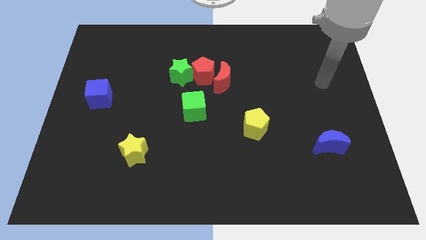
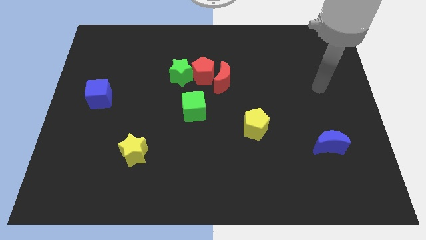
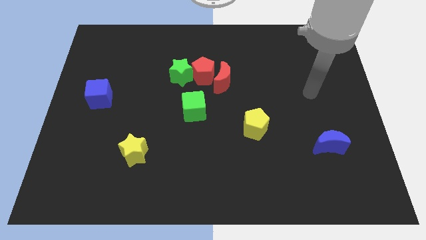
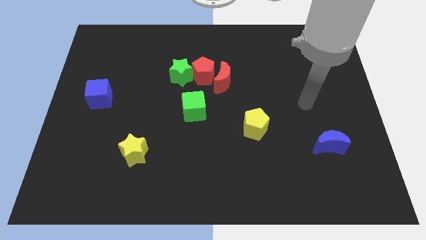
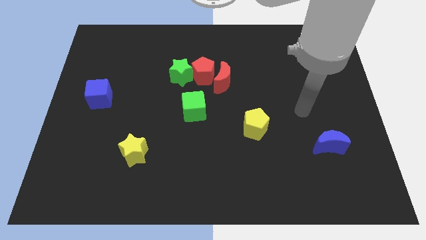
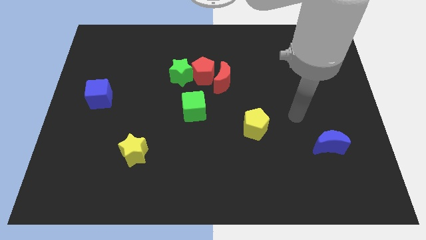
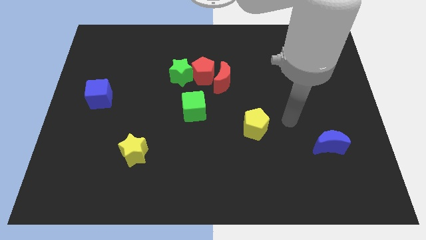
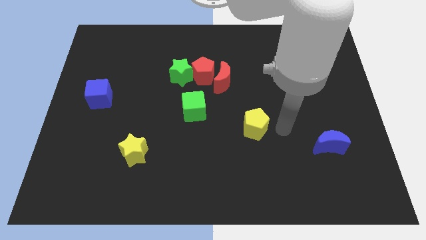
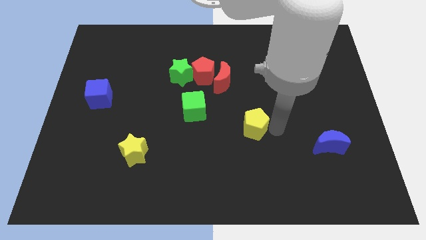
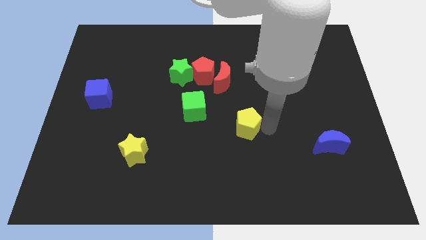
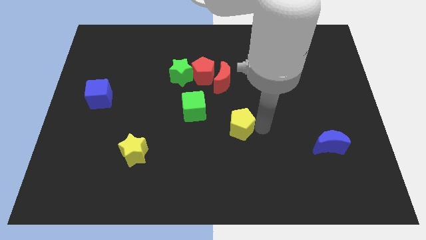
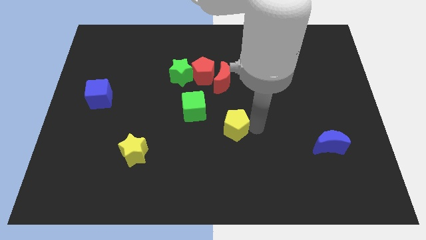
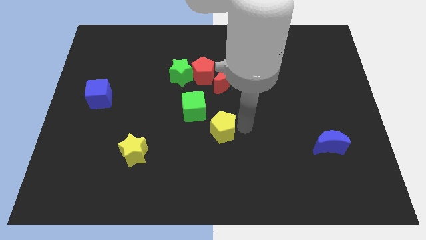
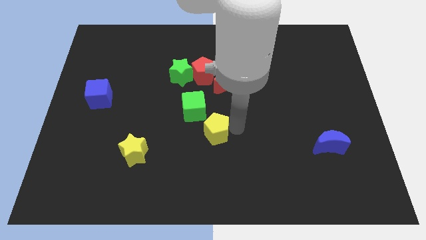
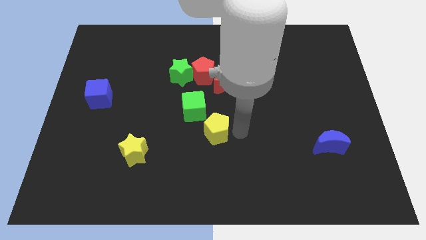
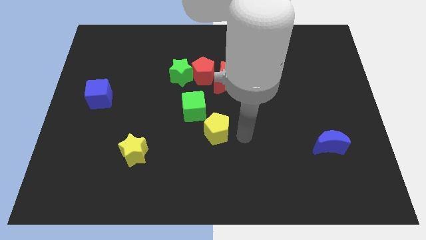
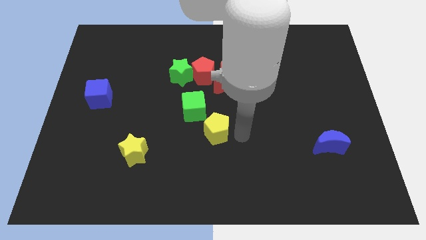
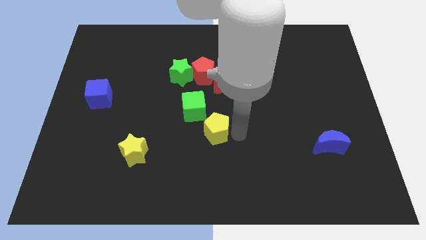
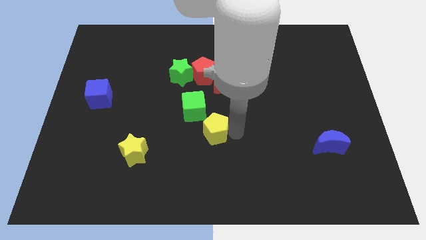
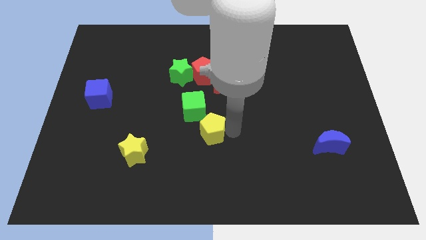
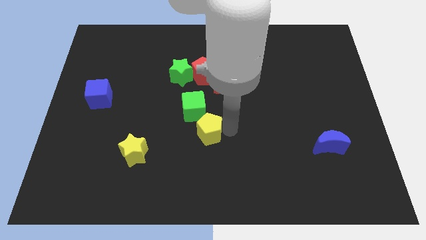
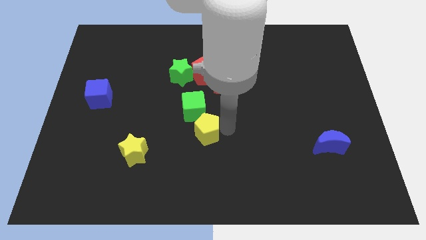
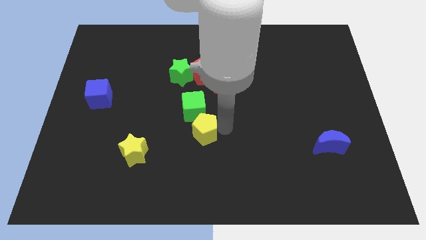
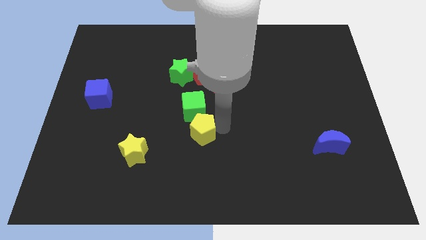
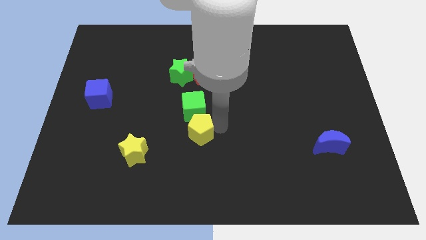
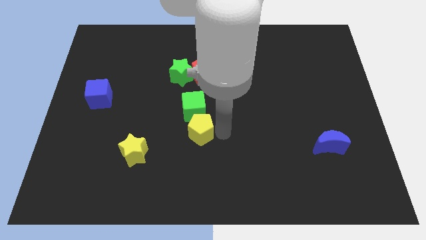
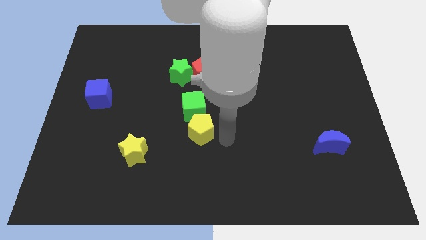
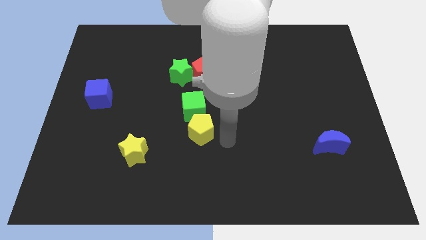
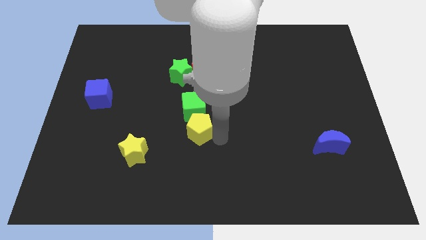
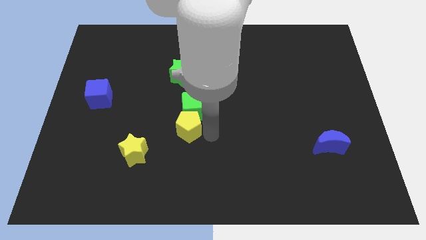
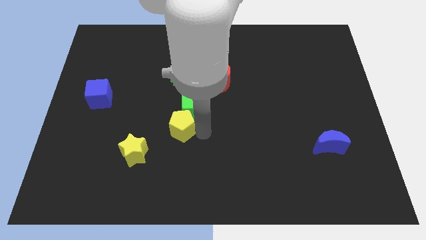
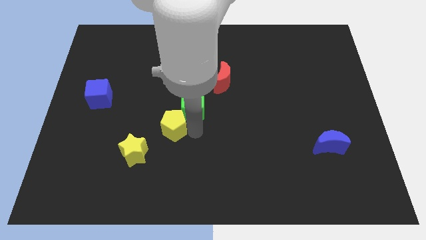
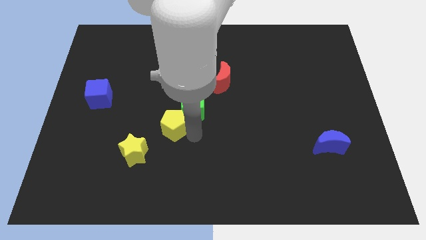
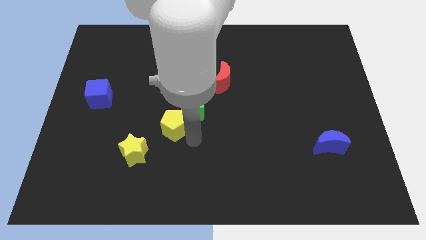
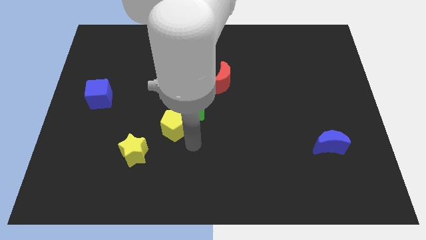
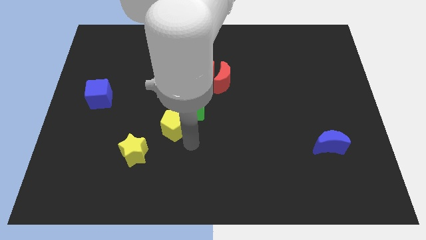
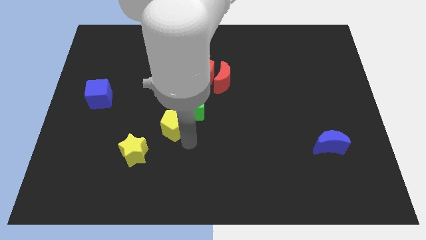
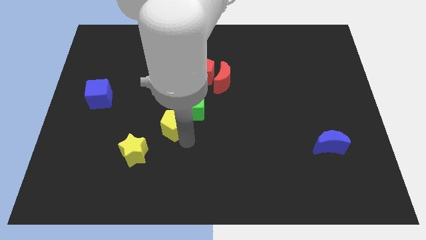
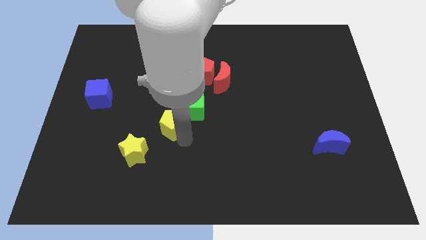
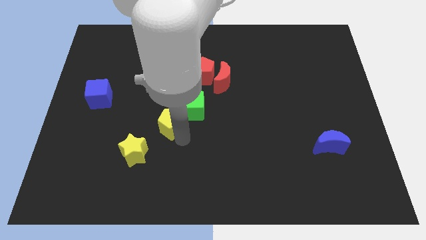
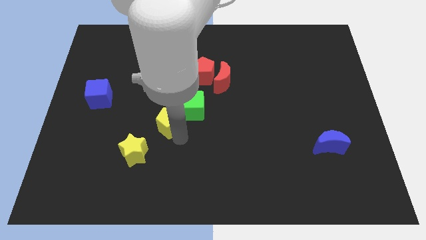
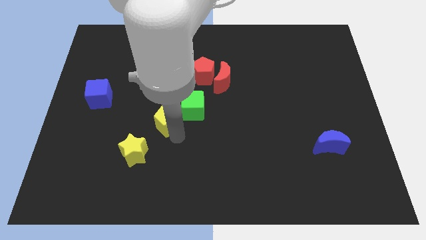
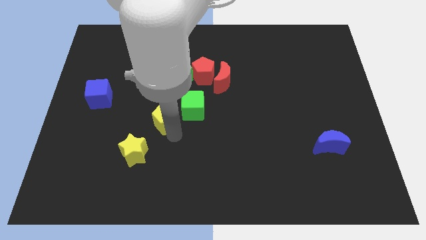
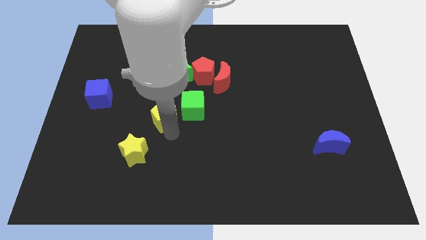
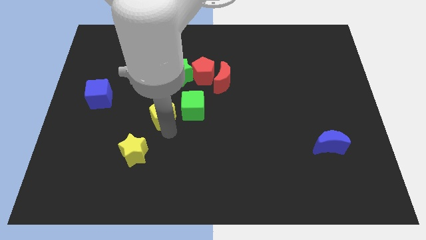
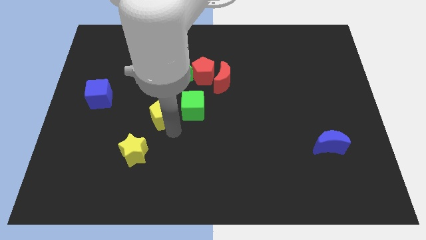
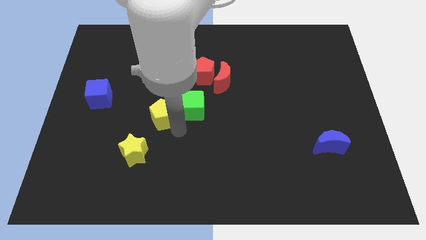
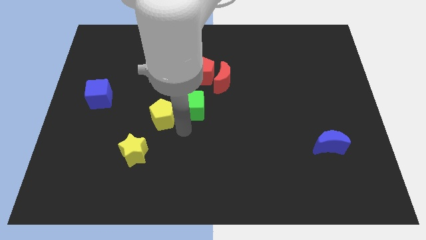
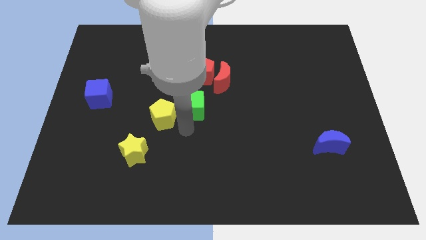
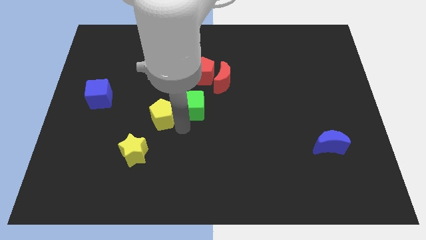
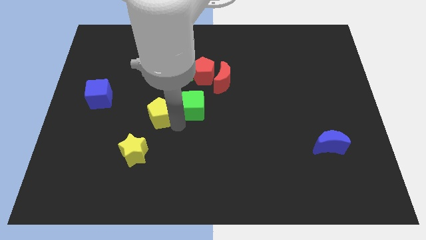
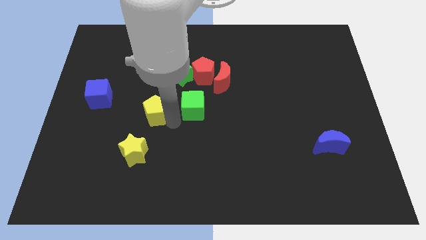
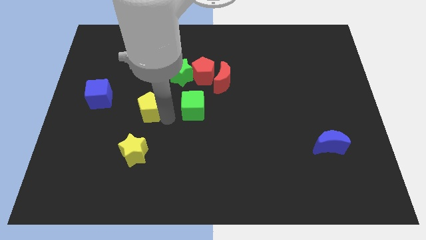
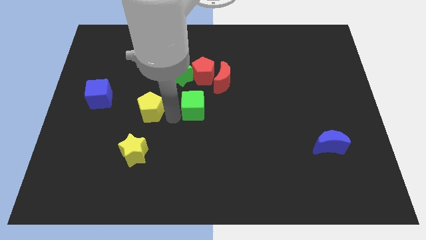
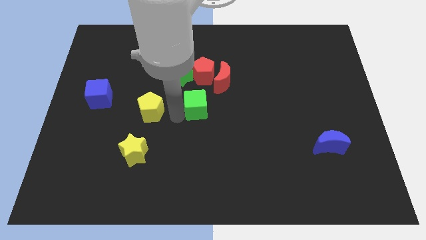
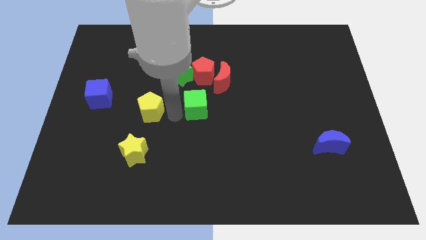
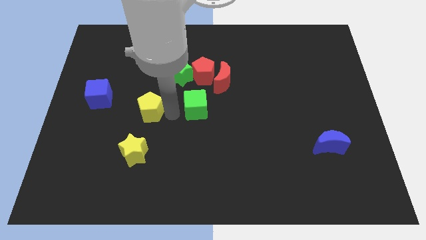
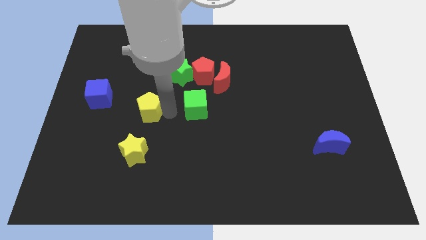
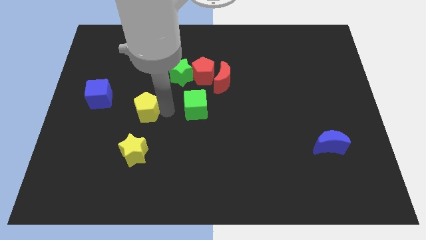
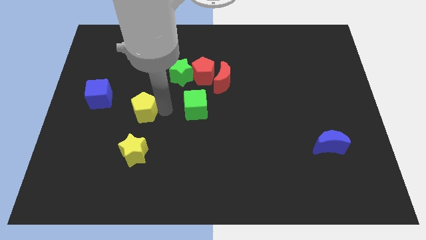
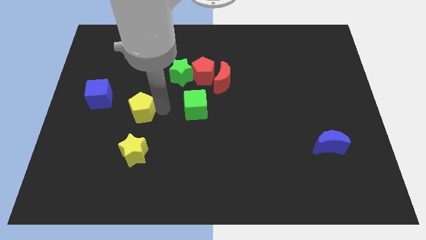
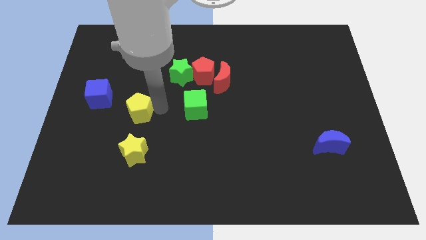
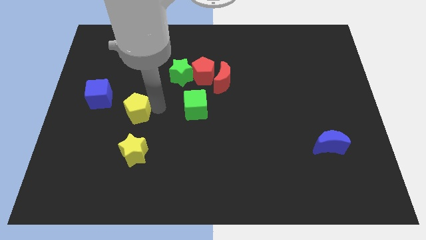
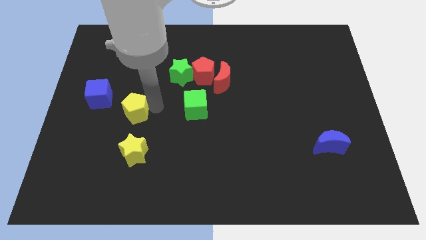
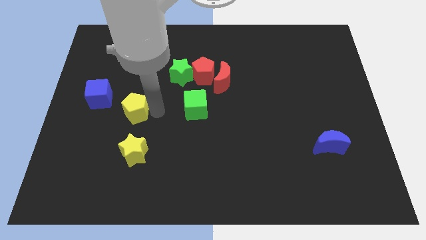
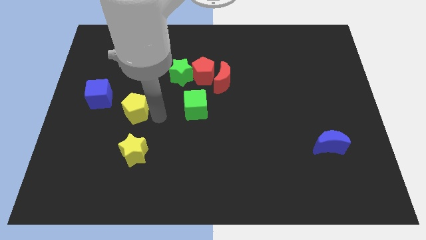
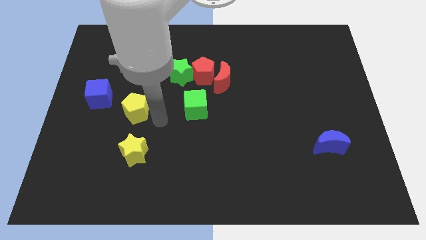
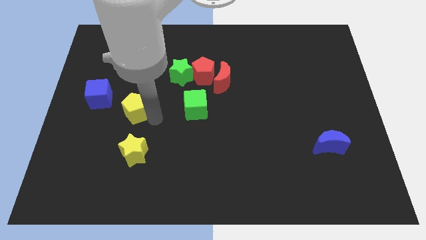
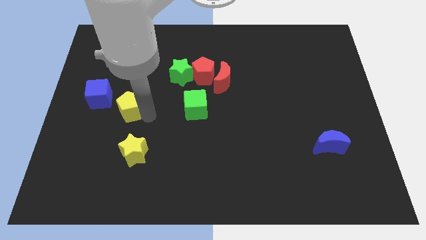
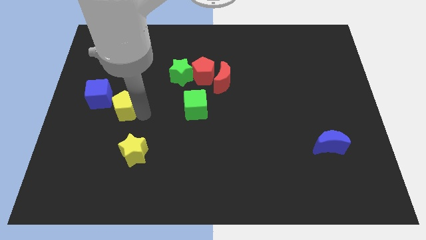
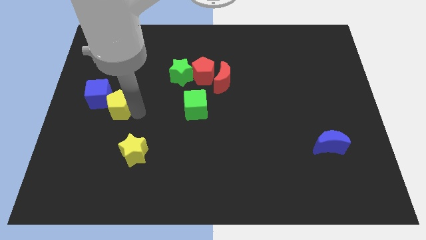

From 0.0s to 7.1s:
put the yellow pentagon towards the blue cube

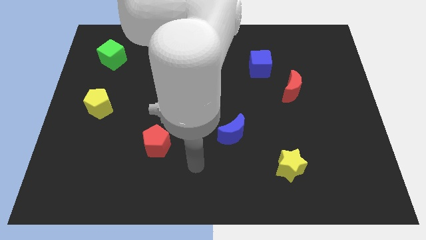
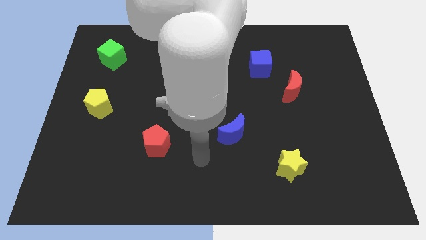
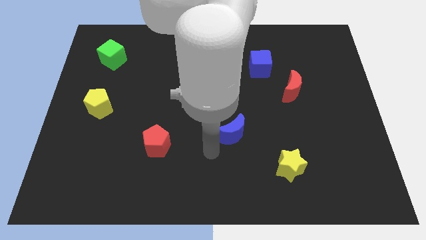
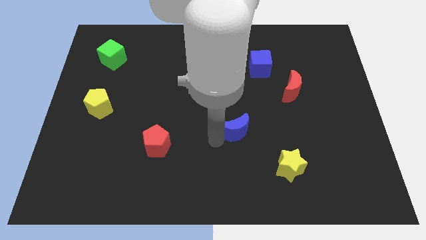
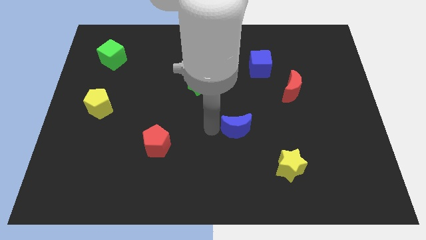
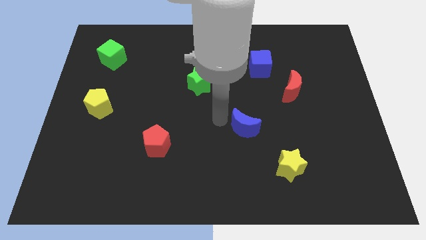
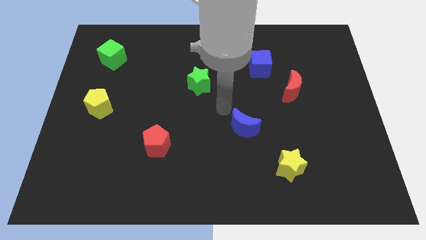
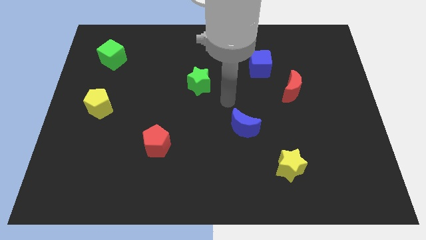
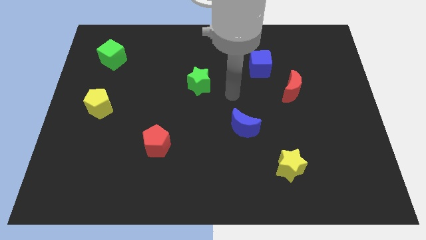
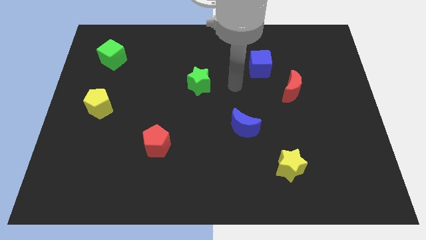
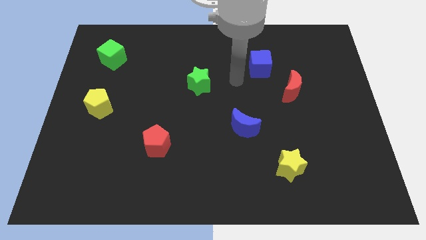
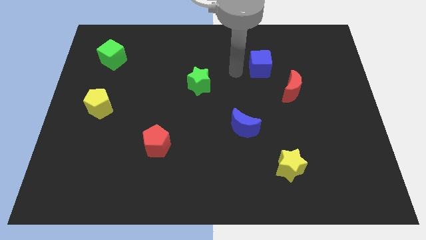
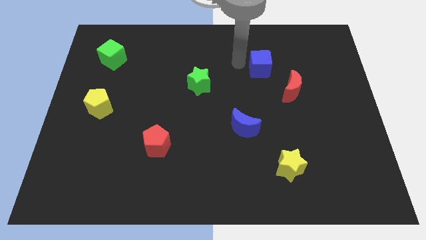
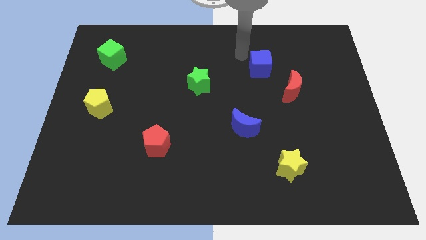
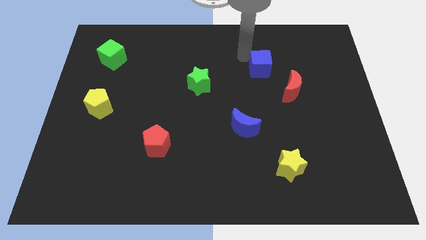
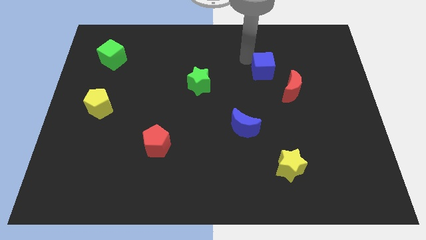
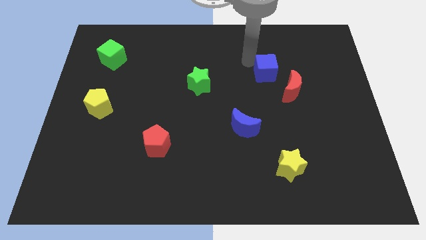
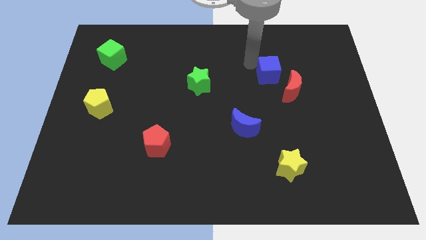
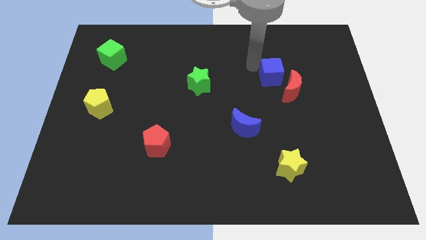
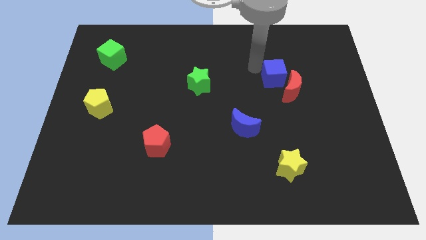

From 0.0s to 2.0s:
push the blue cube next to the red moon
